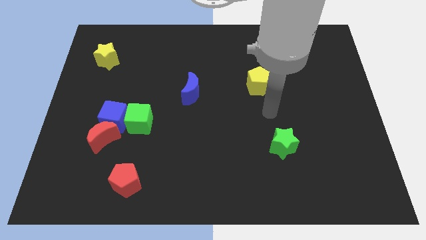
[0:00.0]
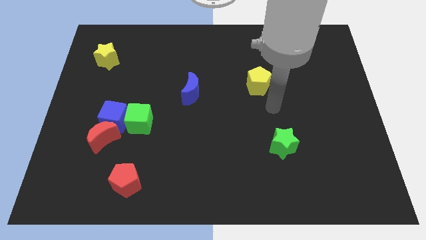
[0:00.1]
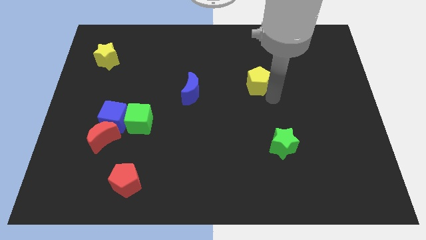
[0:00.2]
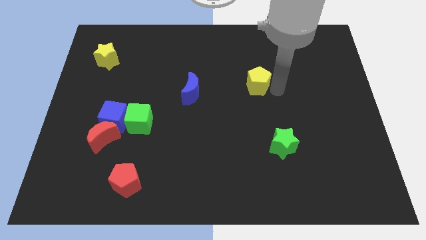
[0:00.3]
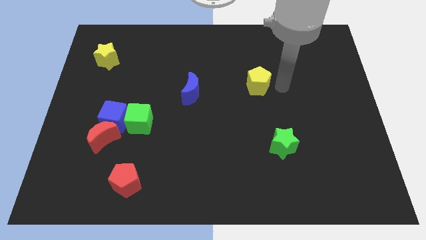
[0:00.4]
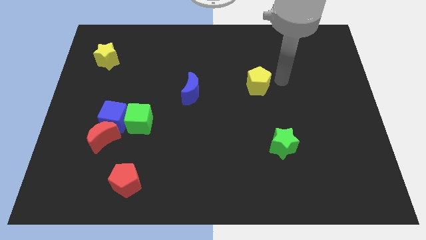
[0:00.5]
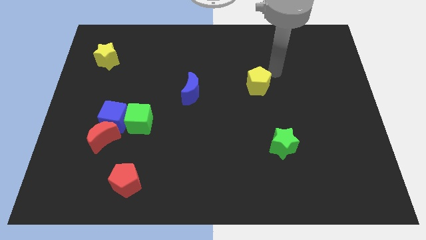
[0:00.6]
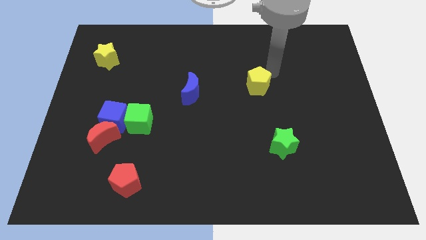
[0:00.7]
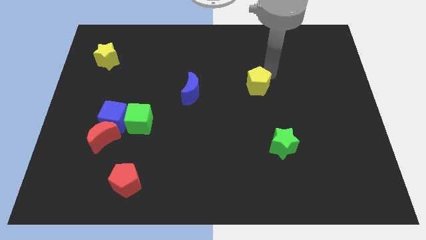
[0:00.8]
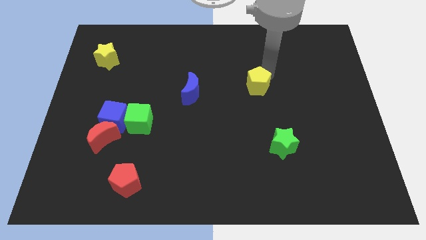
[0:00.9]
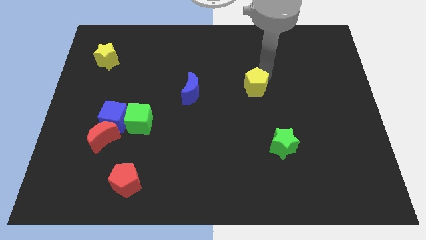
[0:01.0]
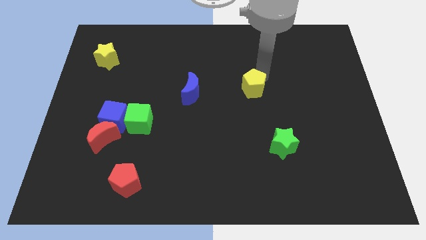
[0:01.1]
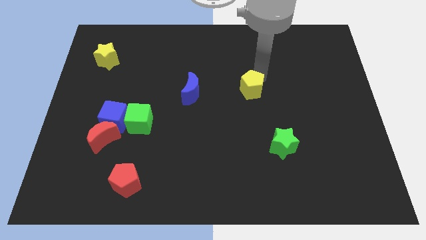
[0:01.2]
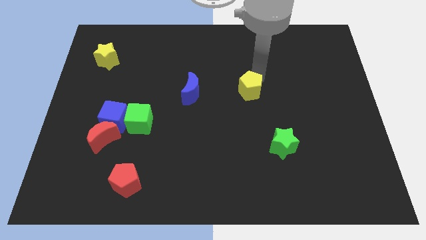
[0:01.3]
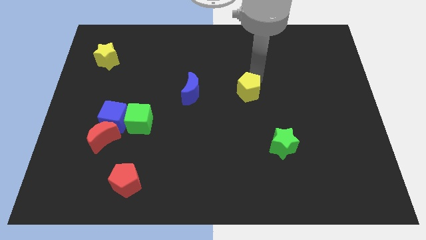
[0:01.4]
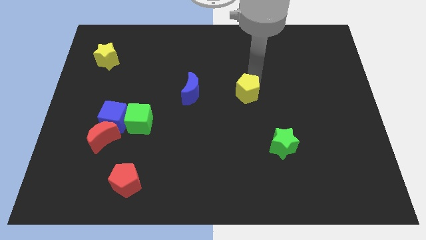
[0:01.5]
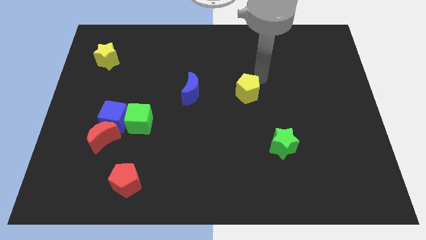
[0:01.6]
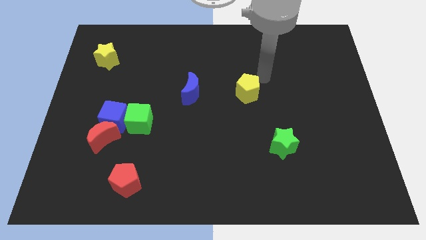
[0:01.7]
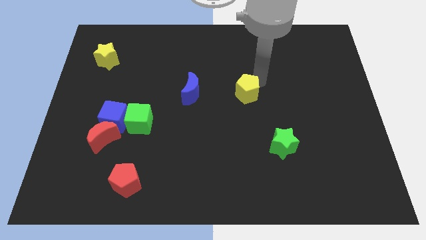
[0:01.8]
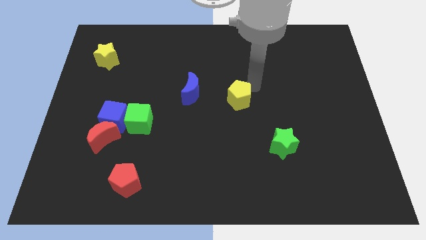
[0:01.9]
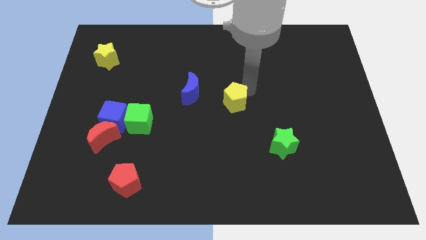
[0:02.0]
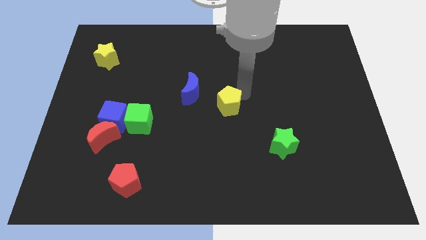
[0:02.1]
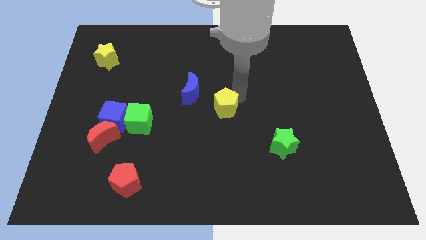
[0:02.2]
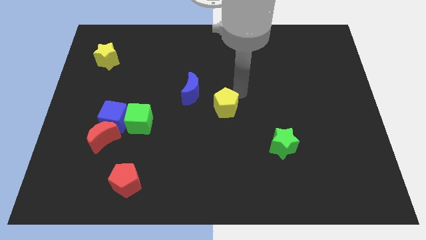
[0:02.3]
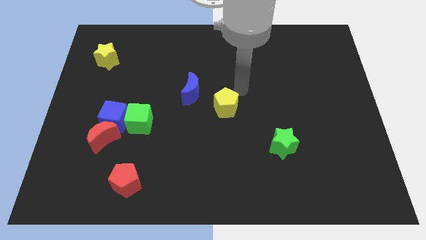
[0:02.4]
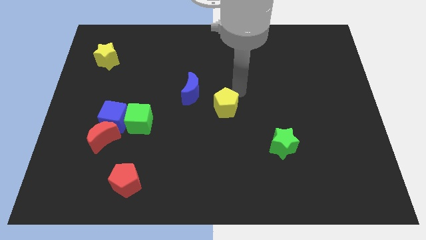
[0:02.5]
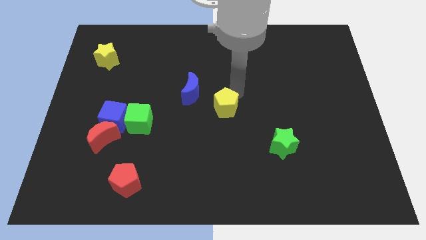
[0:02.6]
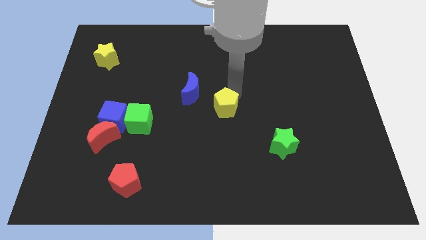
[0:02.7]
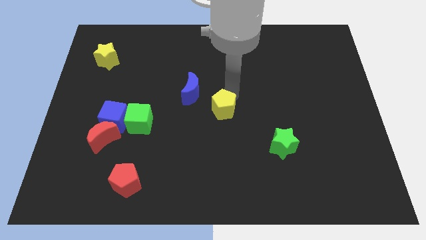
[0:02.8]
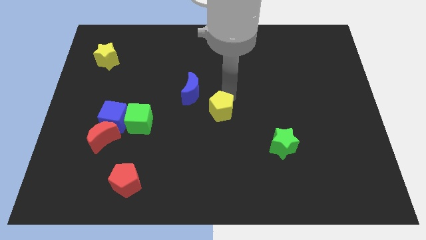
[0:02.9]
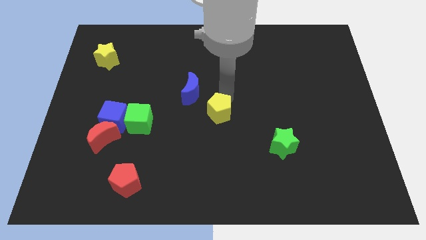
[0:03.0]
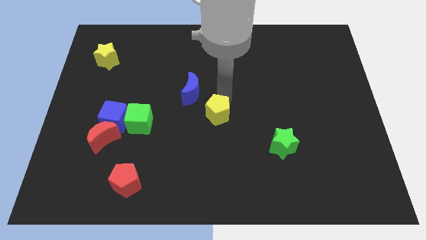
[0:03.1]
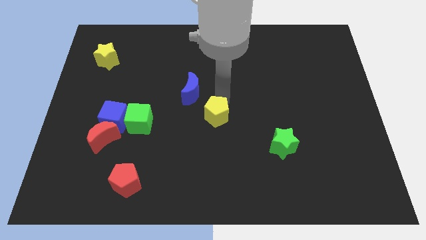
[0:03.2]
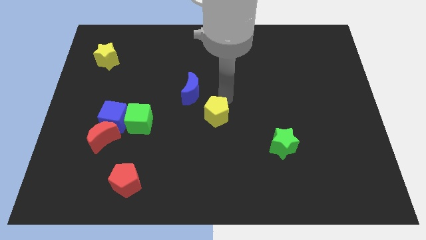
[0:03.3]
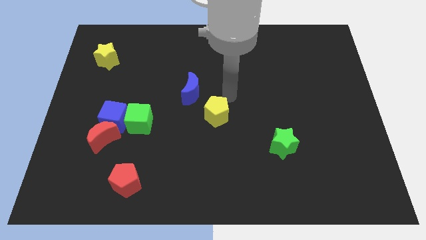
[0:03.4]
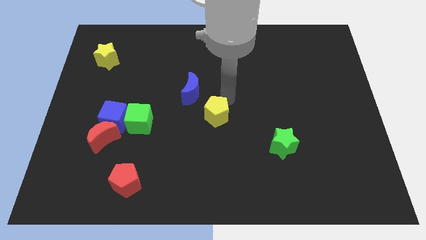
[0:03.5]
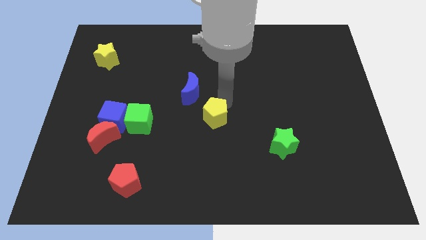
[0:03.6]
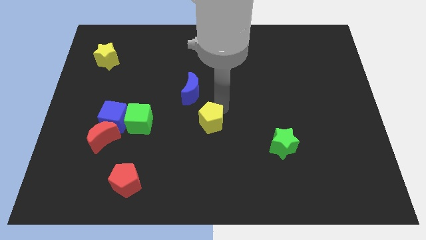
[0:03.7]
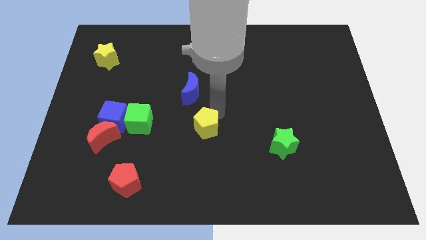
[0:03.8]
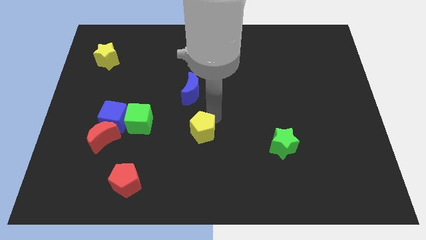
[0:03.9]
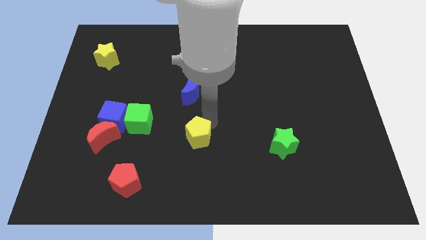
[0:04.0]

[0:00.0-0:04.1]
move the yellow pentagon down and to the left diagonally

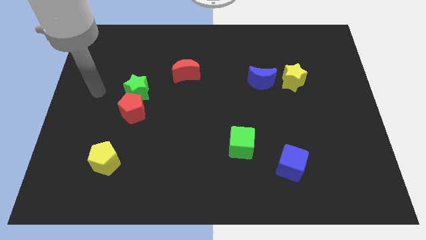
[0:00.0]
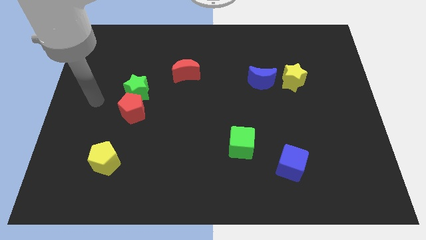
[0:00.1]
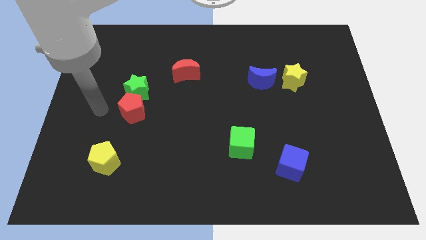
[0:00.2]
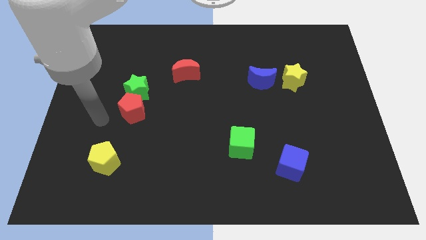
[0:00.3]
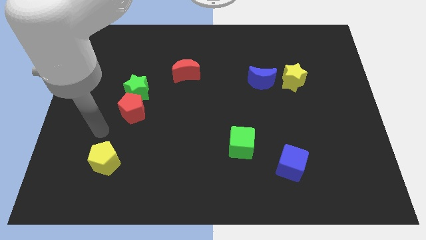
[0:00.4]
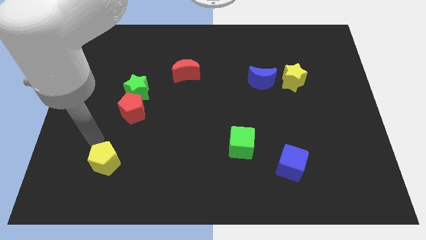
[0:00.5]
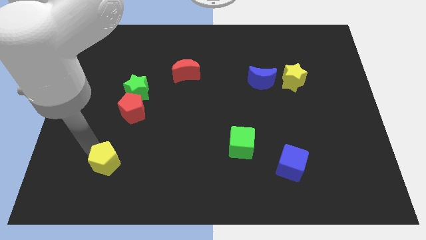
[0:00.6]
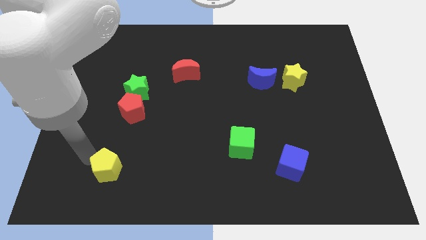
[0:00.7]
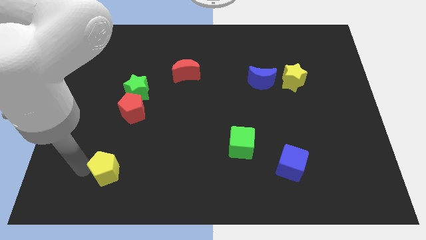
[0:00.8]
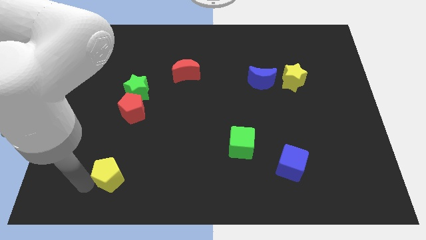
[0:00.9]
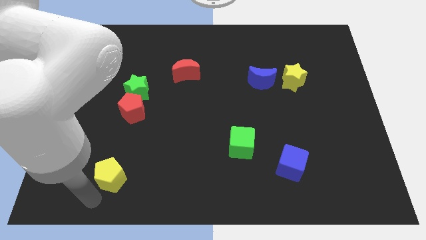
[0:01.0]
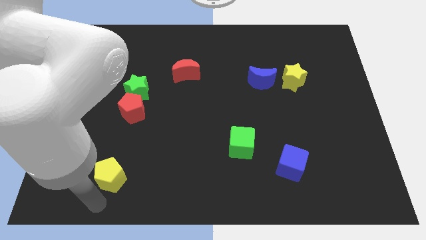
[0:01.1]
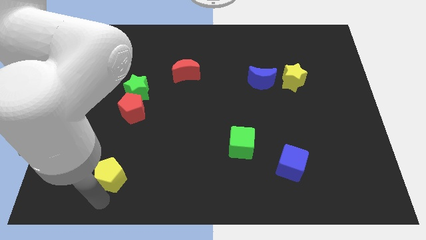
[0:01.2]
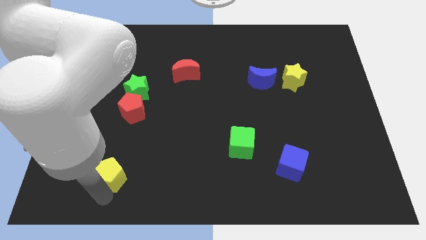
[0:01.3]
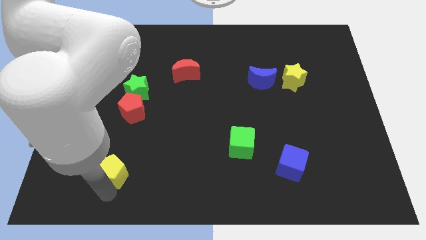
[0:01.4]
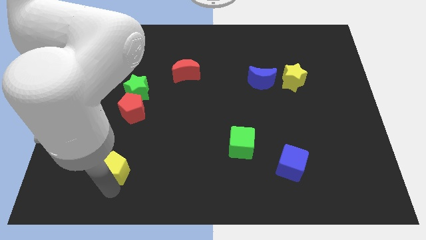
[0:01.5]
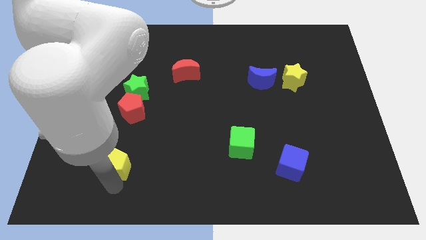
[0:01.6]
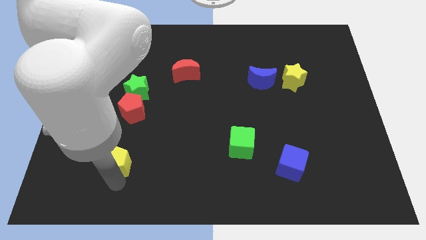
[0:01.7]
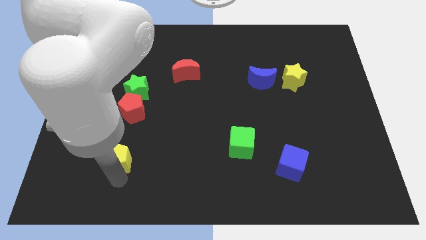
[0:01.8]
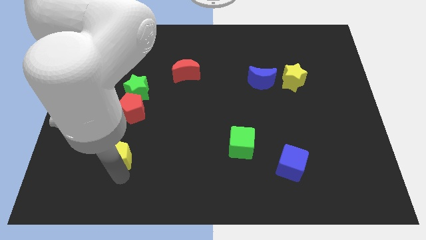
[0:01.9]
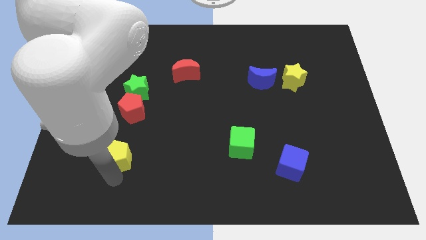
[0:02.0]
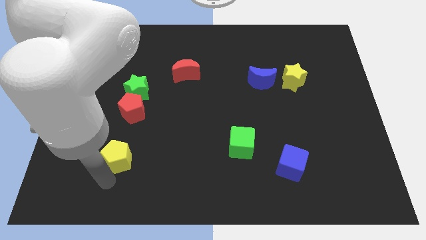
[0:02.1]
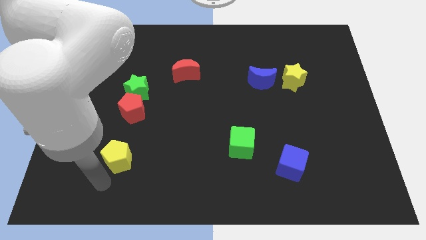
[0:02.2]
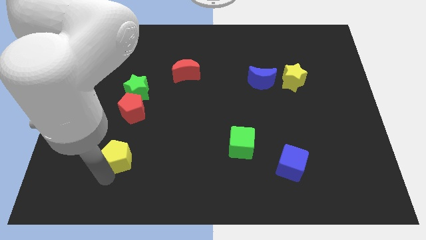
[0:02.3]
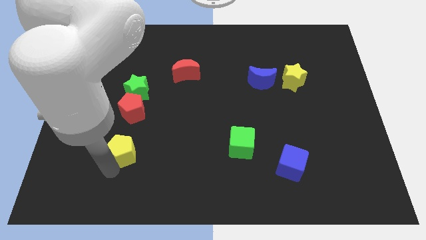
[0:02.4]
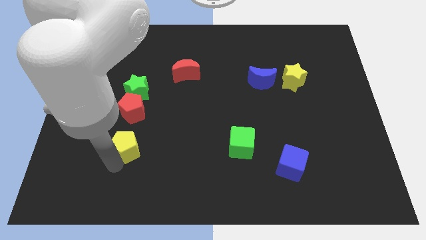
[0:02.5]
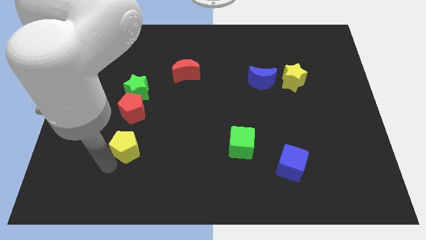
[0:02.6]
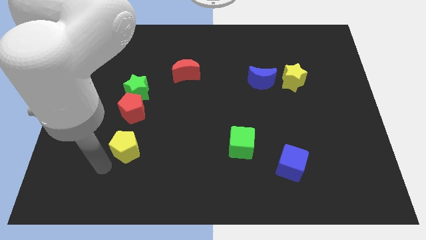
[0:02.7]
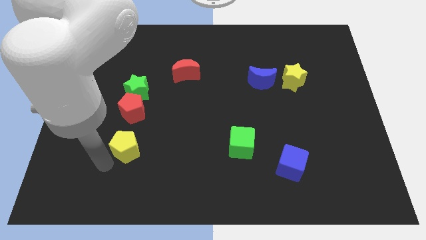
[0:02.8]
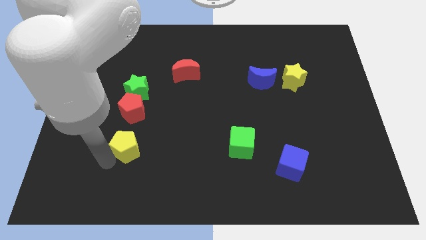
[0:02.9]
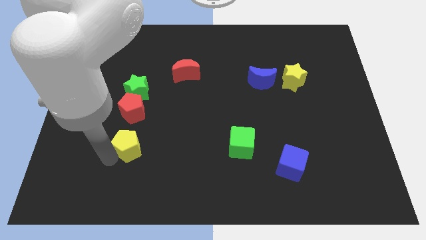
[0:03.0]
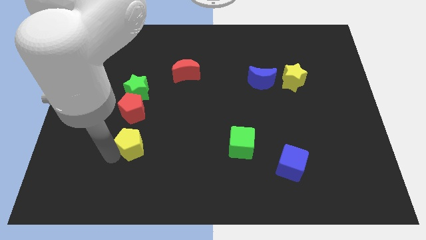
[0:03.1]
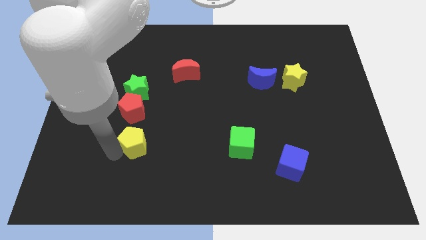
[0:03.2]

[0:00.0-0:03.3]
slightly slide the yellow pentagon upwards and then to the right

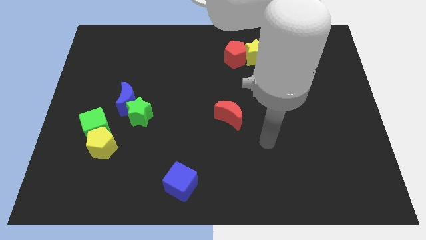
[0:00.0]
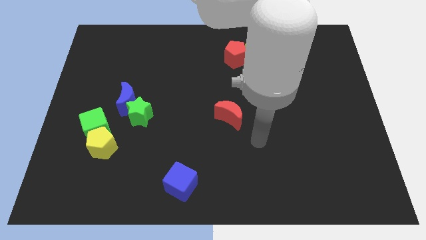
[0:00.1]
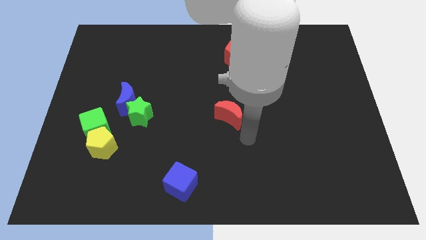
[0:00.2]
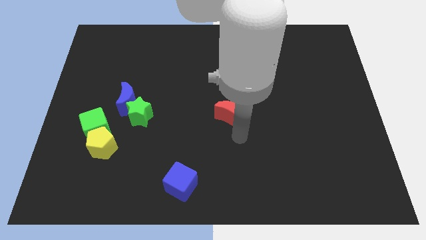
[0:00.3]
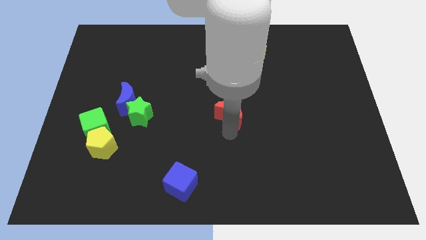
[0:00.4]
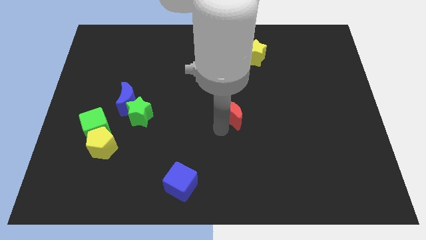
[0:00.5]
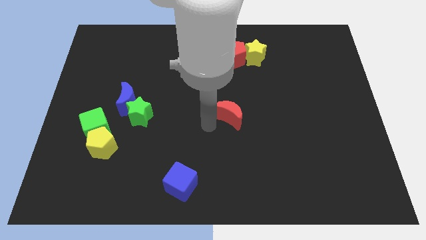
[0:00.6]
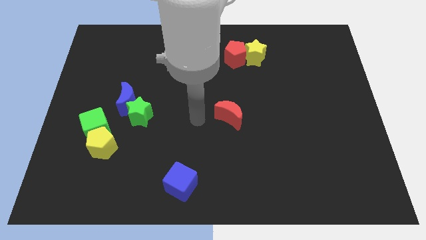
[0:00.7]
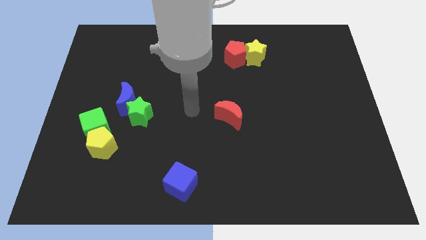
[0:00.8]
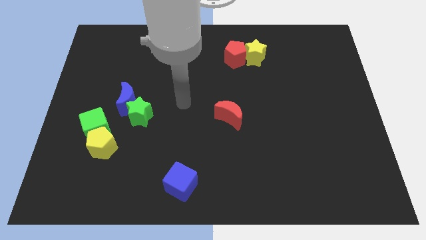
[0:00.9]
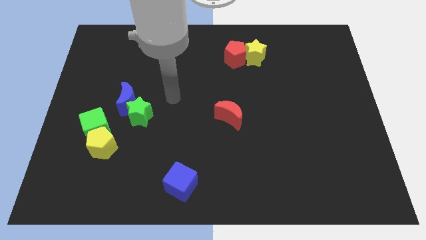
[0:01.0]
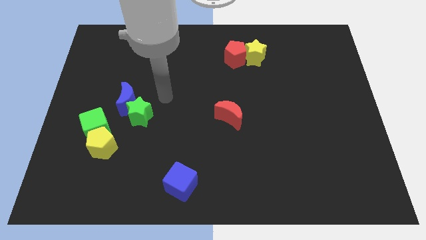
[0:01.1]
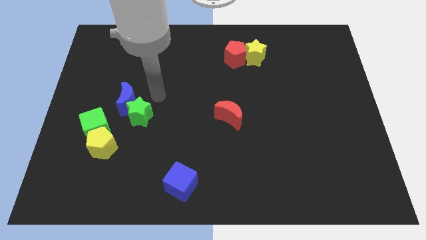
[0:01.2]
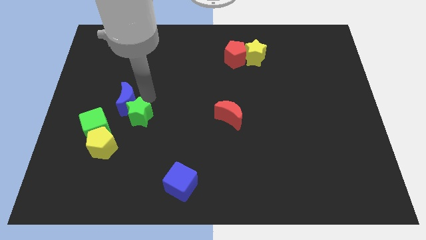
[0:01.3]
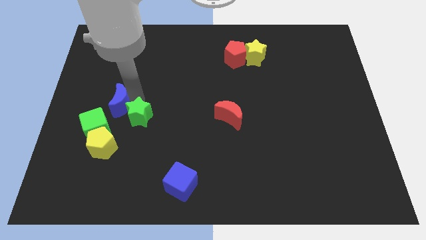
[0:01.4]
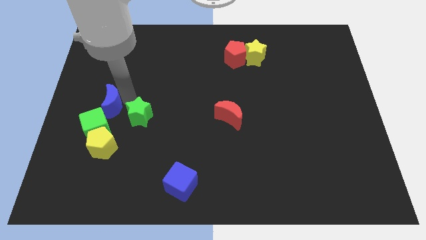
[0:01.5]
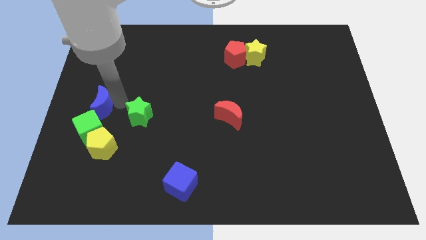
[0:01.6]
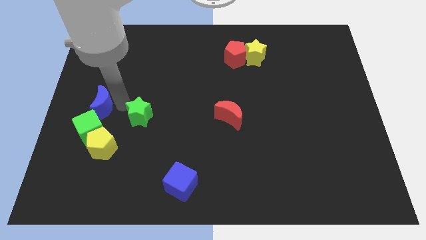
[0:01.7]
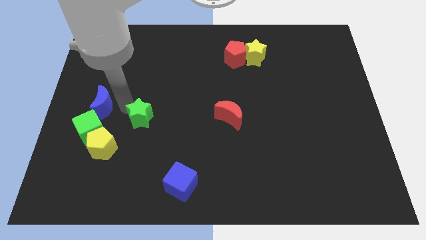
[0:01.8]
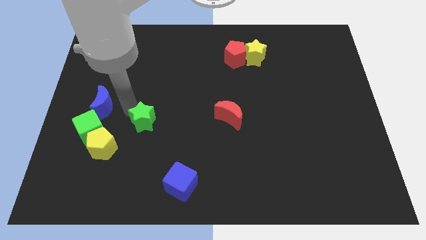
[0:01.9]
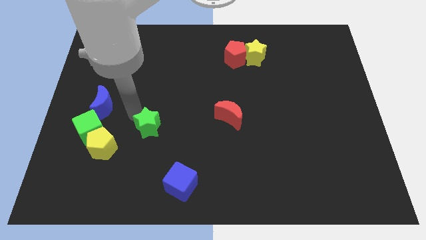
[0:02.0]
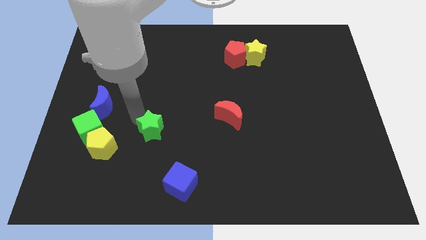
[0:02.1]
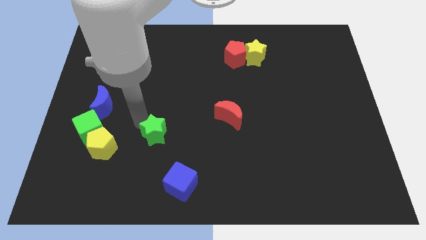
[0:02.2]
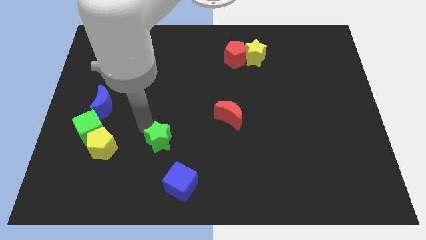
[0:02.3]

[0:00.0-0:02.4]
slightly push the green star down and then to the right
